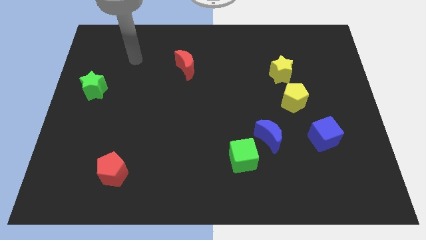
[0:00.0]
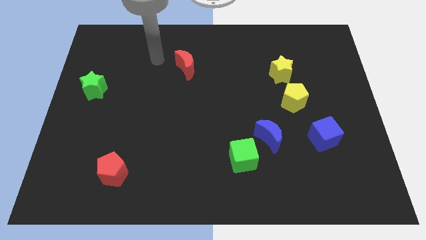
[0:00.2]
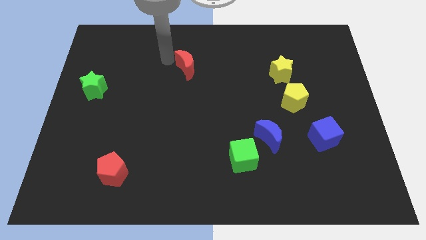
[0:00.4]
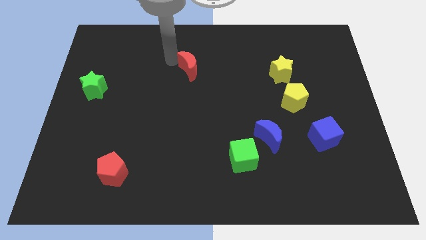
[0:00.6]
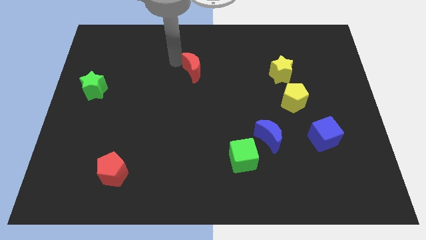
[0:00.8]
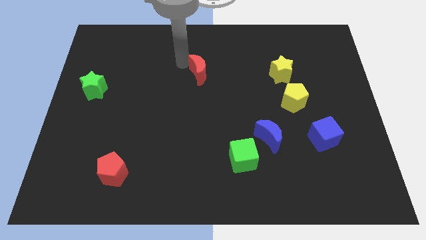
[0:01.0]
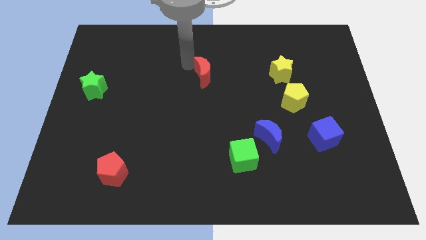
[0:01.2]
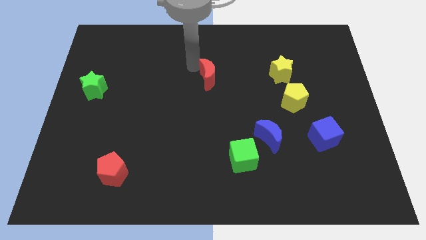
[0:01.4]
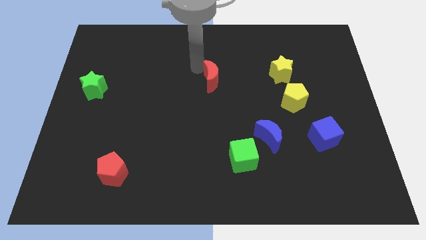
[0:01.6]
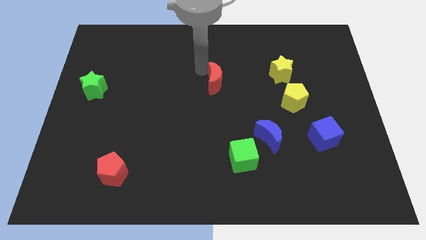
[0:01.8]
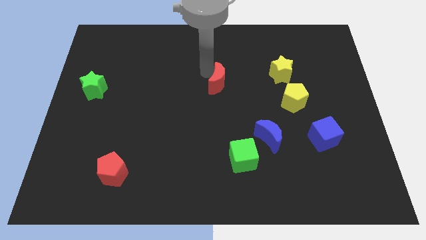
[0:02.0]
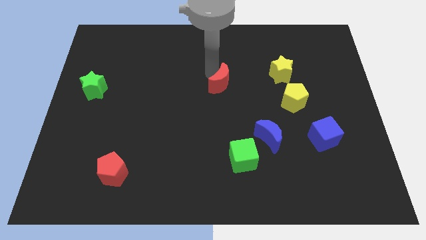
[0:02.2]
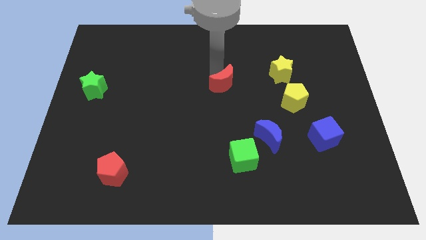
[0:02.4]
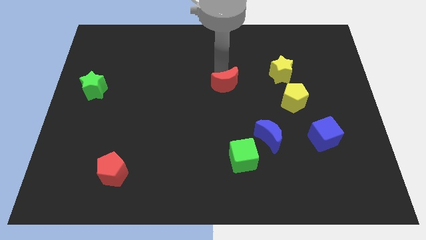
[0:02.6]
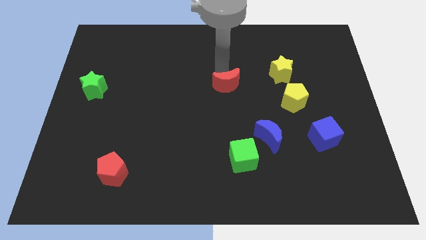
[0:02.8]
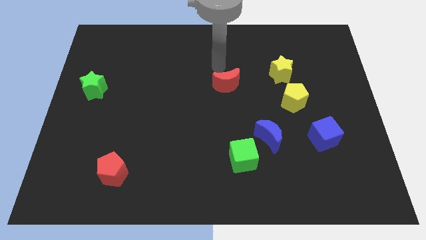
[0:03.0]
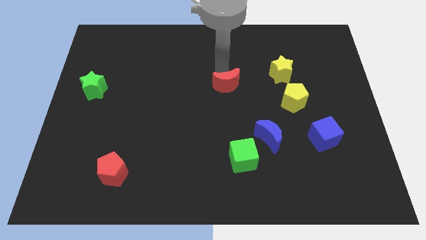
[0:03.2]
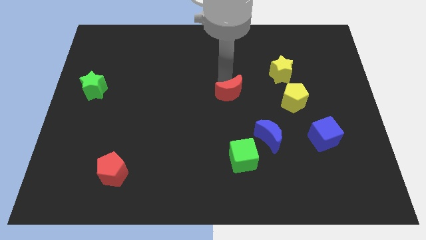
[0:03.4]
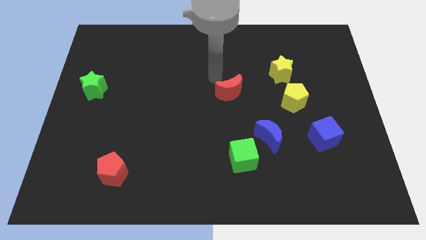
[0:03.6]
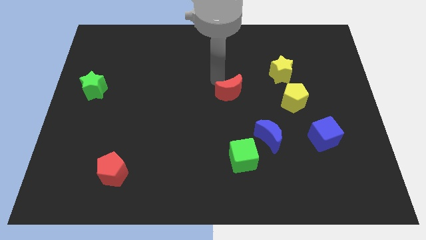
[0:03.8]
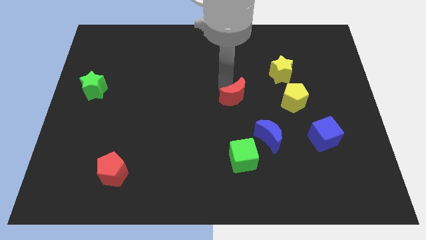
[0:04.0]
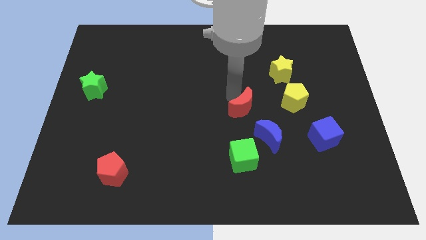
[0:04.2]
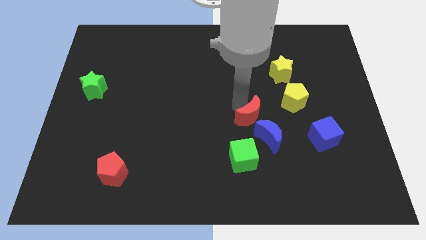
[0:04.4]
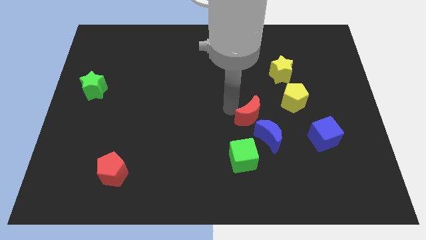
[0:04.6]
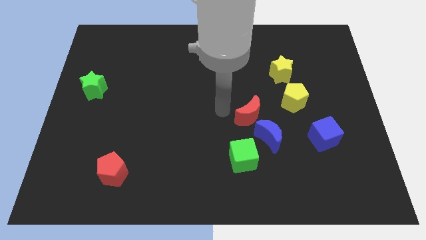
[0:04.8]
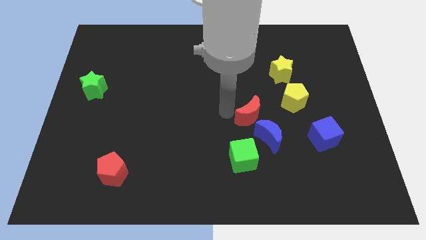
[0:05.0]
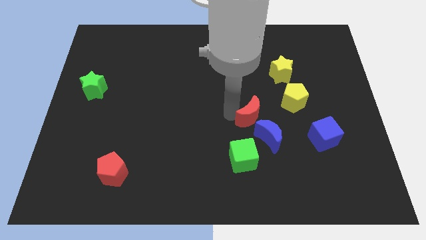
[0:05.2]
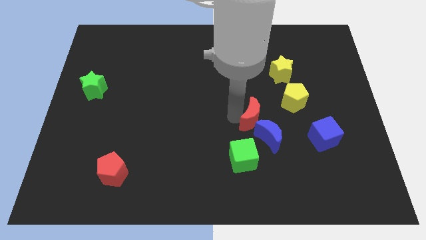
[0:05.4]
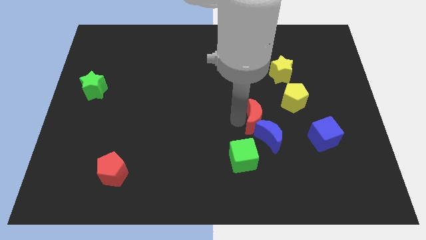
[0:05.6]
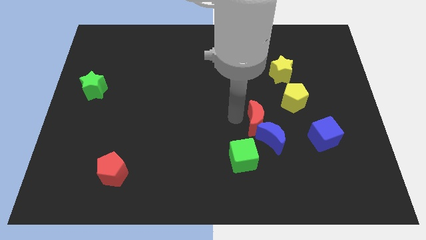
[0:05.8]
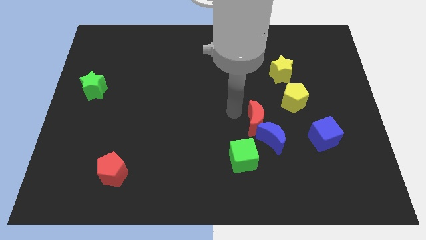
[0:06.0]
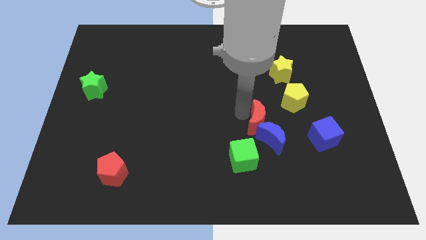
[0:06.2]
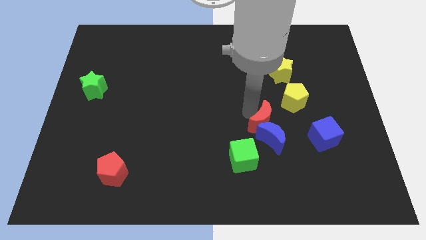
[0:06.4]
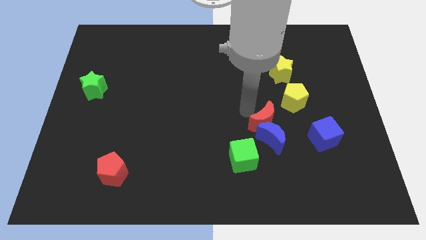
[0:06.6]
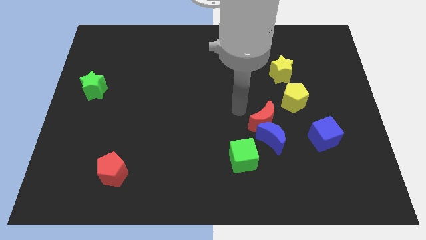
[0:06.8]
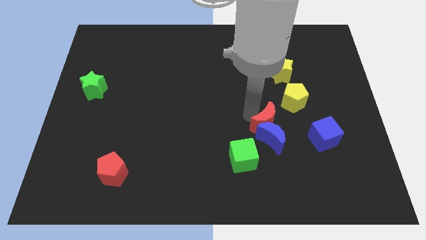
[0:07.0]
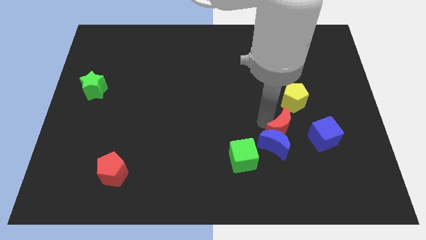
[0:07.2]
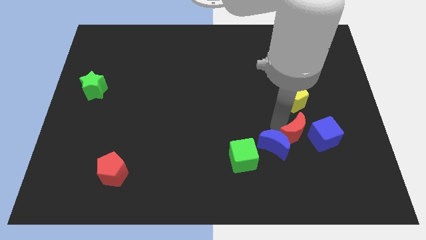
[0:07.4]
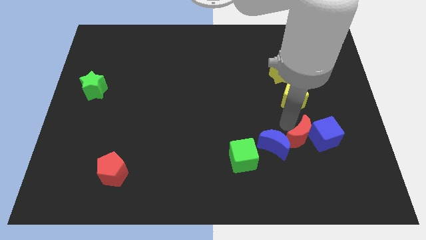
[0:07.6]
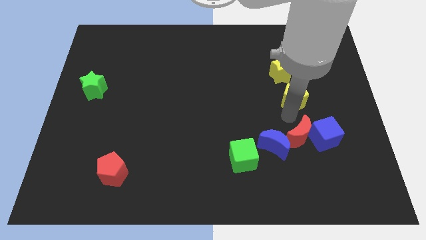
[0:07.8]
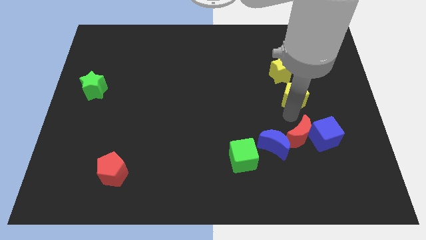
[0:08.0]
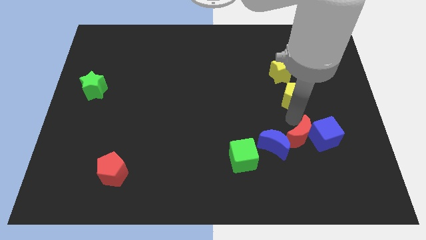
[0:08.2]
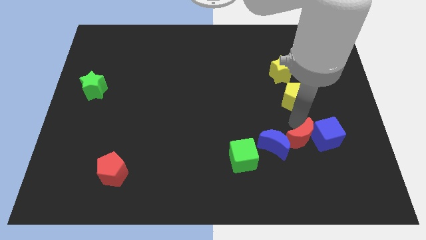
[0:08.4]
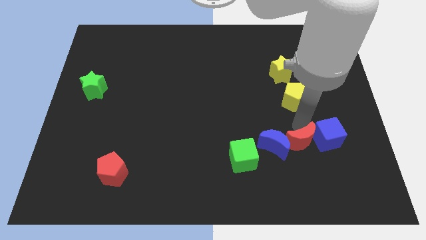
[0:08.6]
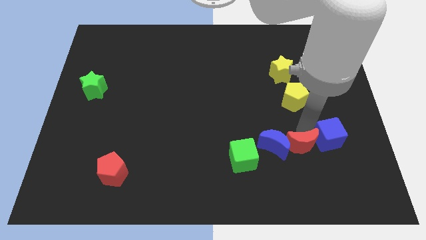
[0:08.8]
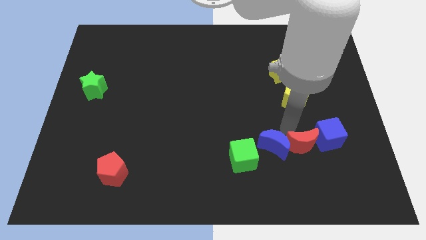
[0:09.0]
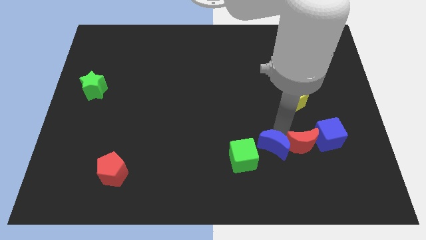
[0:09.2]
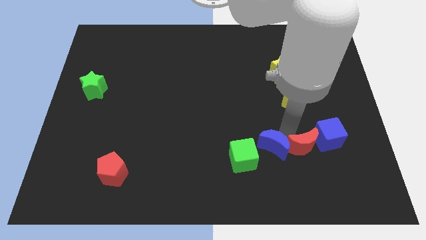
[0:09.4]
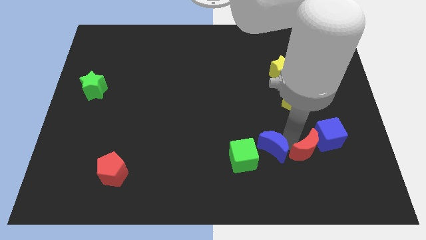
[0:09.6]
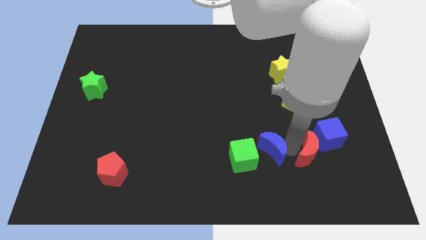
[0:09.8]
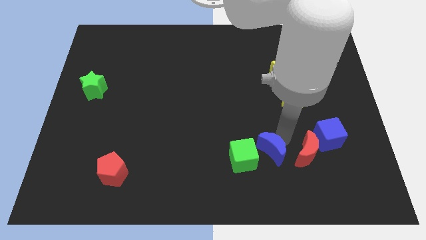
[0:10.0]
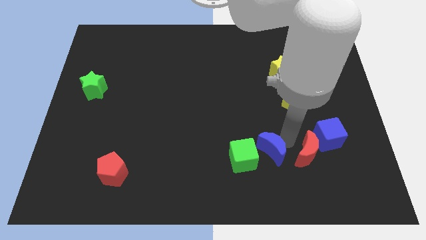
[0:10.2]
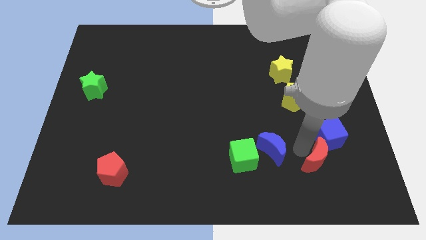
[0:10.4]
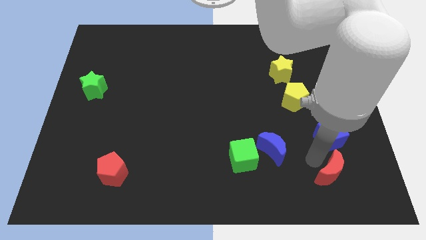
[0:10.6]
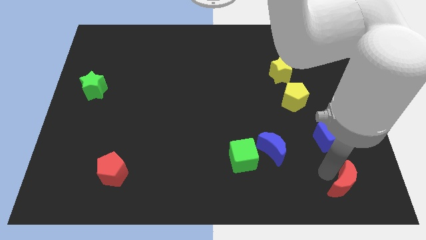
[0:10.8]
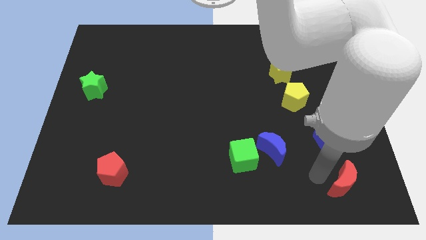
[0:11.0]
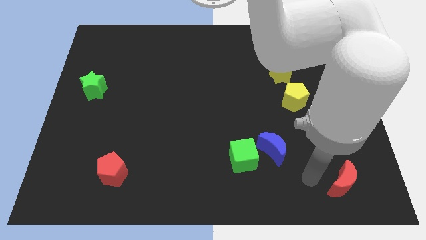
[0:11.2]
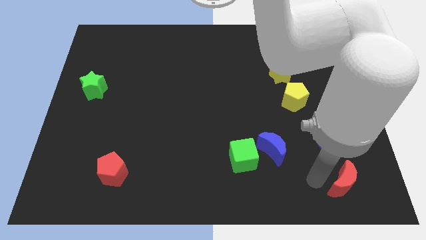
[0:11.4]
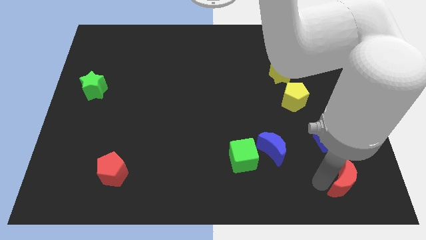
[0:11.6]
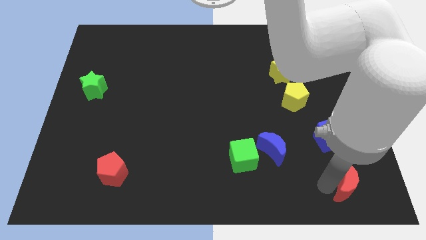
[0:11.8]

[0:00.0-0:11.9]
slide the red moon to the bottom right
